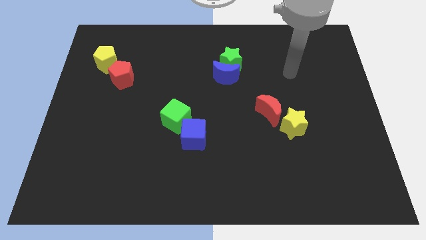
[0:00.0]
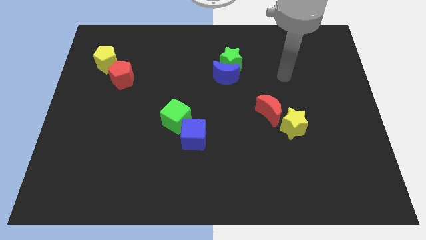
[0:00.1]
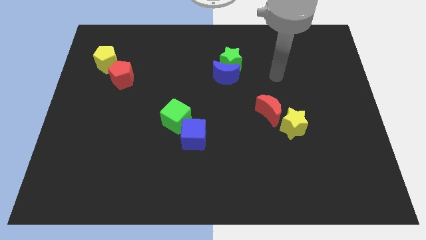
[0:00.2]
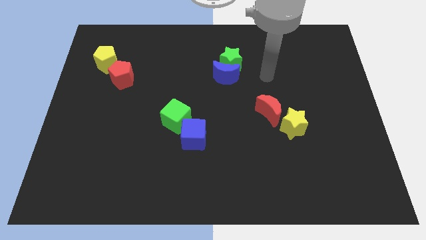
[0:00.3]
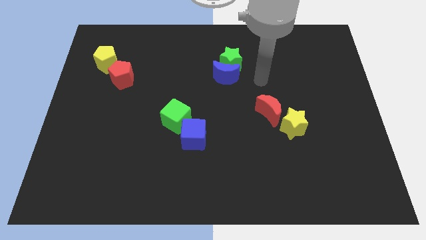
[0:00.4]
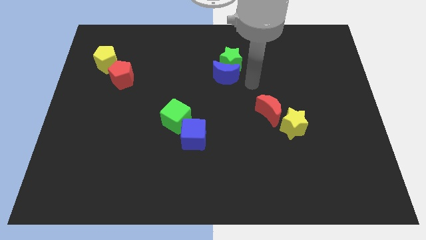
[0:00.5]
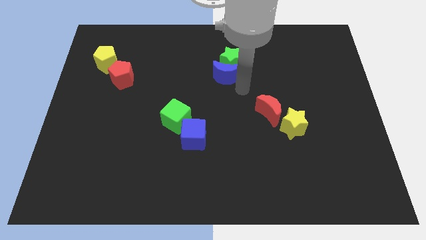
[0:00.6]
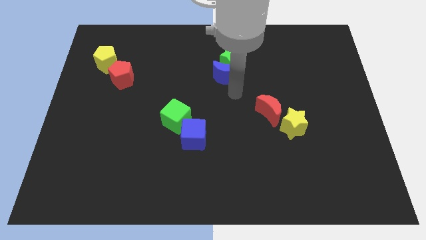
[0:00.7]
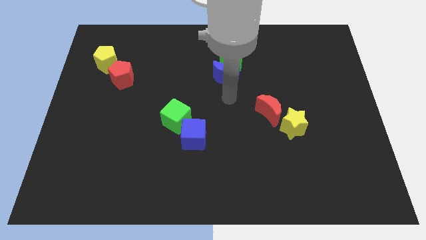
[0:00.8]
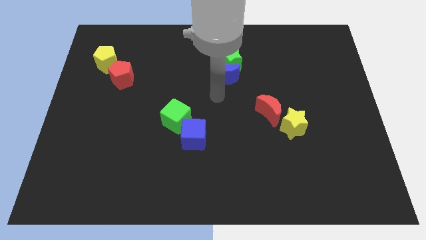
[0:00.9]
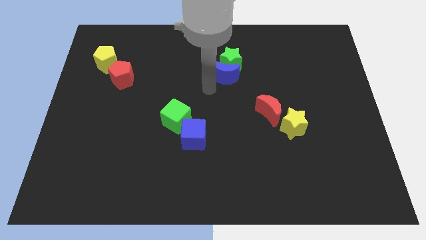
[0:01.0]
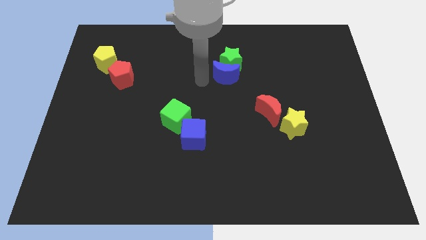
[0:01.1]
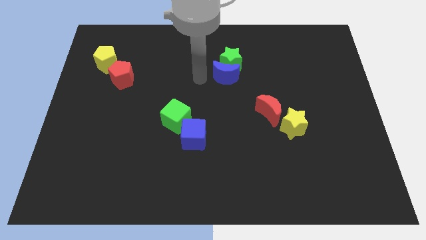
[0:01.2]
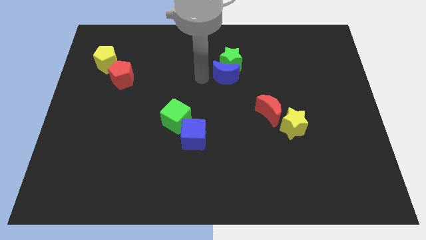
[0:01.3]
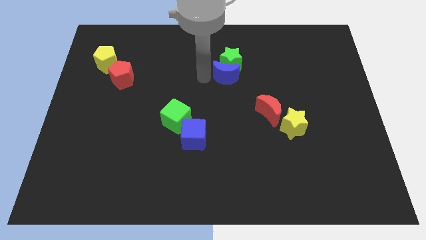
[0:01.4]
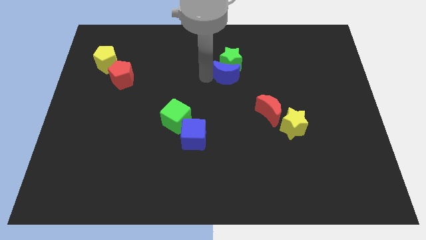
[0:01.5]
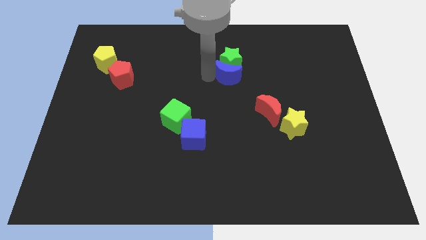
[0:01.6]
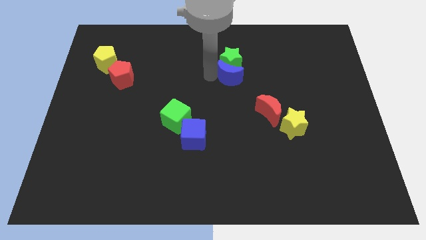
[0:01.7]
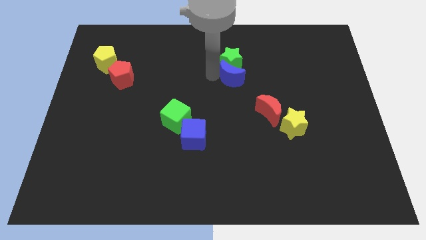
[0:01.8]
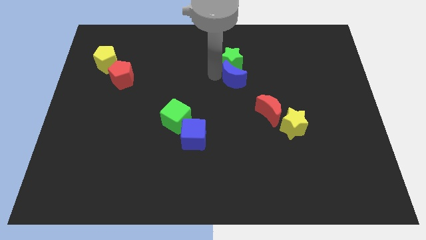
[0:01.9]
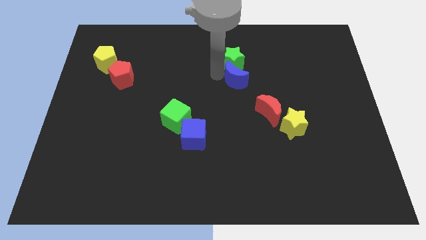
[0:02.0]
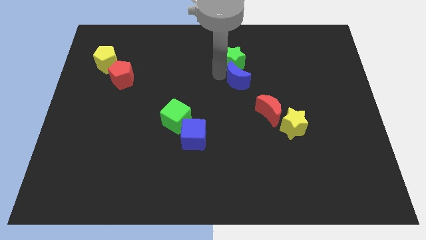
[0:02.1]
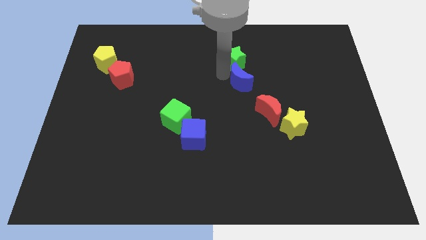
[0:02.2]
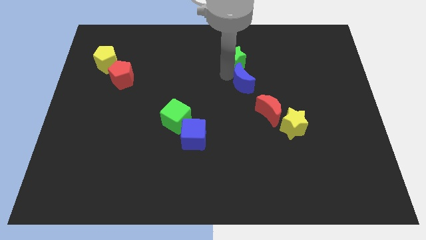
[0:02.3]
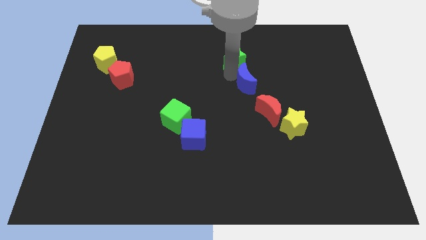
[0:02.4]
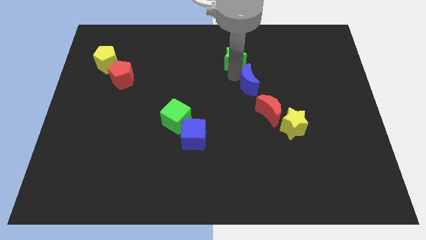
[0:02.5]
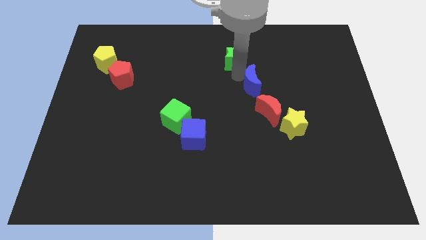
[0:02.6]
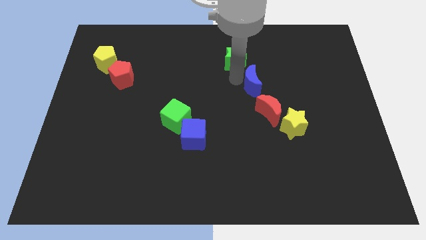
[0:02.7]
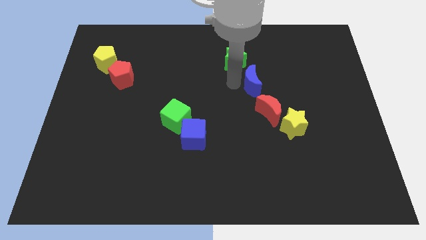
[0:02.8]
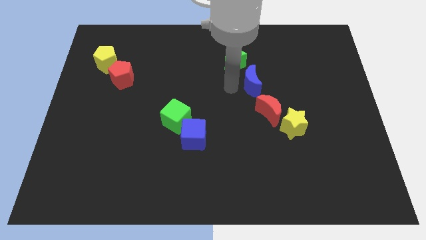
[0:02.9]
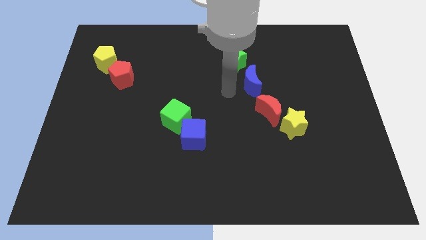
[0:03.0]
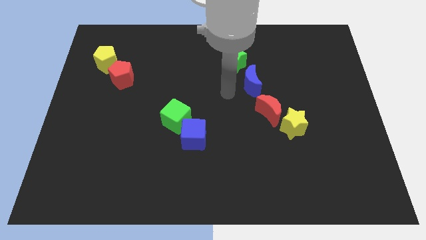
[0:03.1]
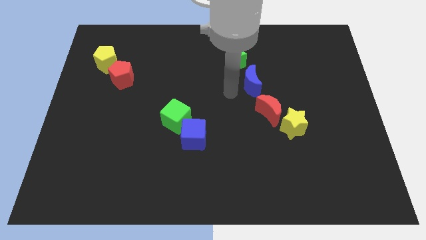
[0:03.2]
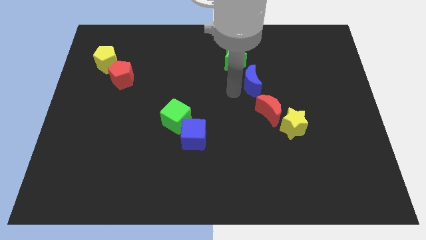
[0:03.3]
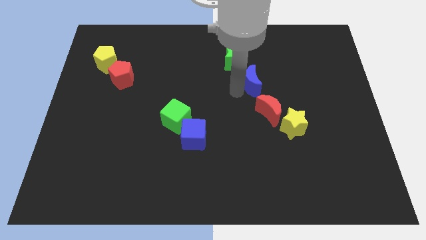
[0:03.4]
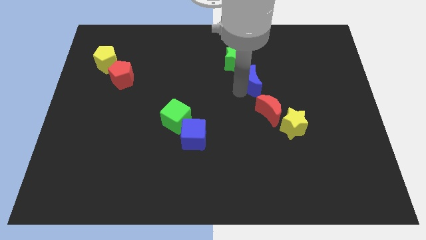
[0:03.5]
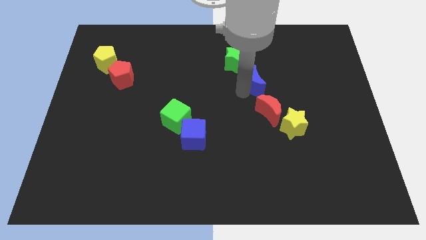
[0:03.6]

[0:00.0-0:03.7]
slide the blue moon right a little bit

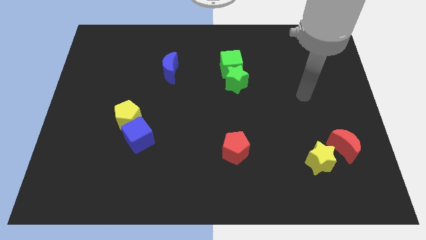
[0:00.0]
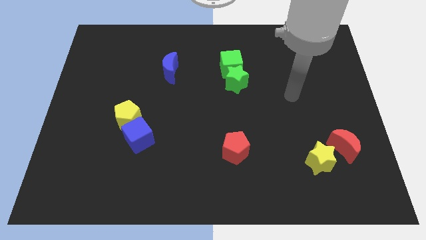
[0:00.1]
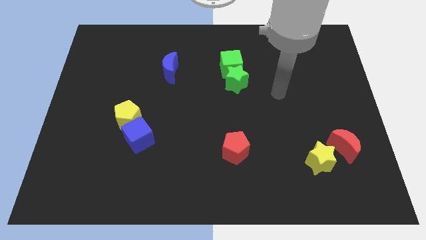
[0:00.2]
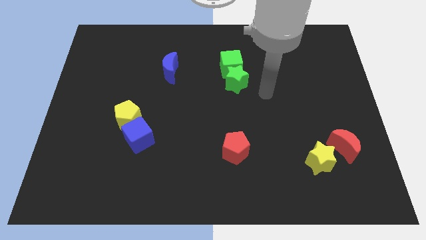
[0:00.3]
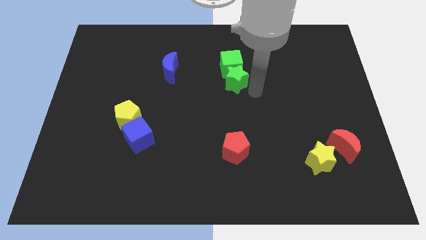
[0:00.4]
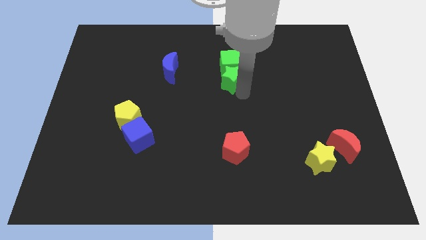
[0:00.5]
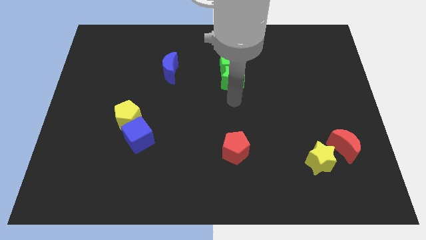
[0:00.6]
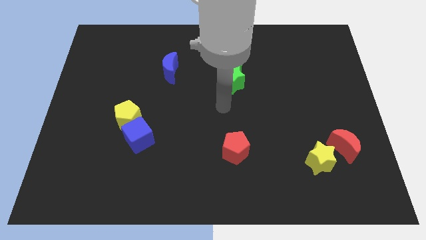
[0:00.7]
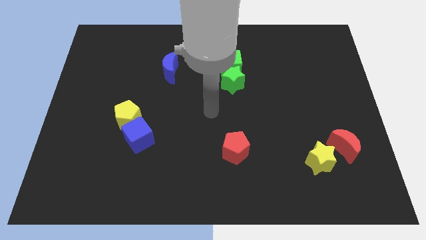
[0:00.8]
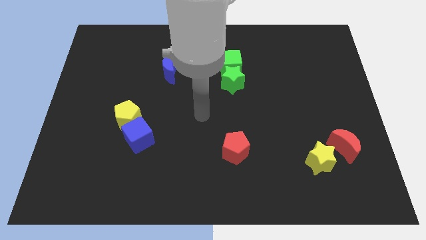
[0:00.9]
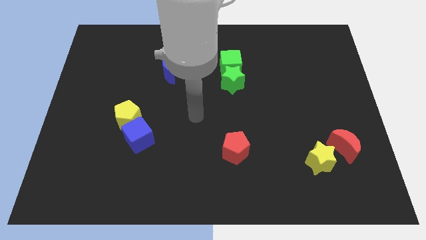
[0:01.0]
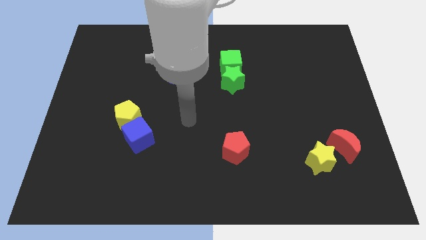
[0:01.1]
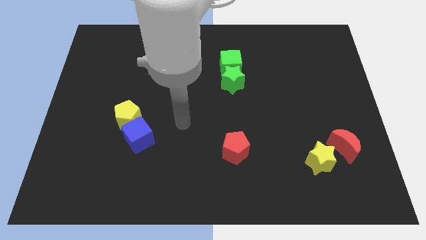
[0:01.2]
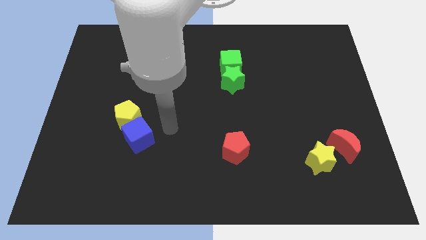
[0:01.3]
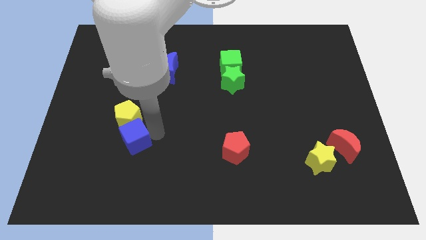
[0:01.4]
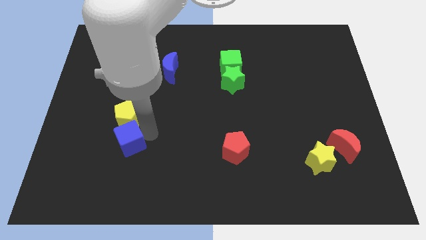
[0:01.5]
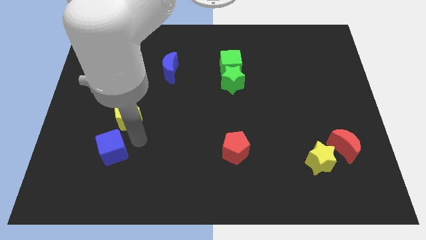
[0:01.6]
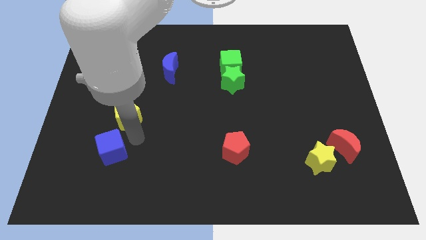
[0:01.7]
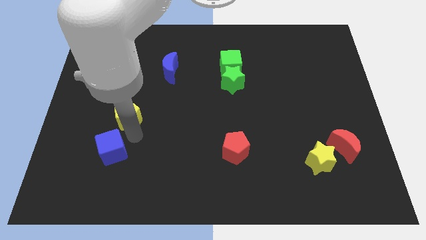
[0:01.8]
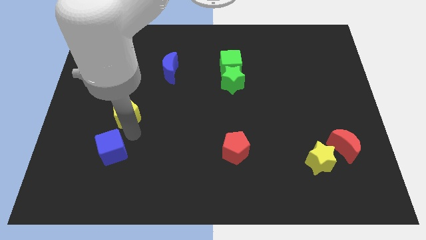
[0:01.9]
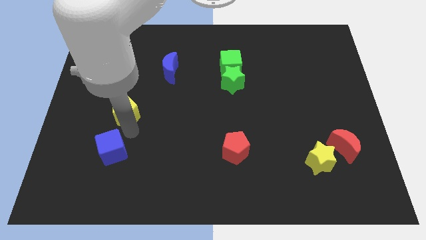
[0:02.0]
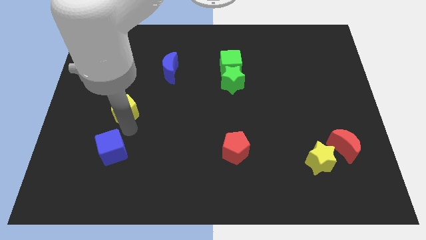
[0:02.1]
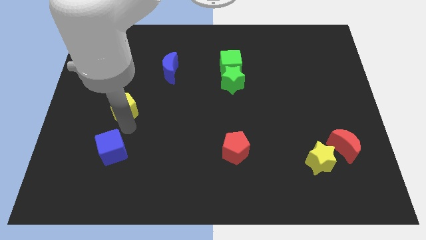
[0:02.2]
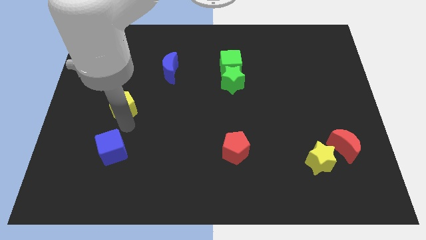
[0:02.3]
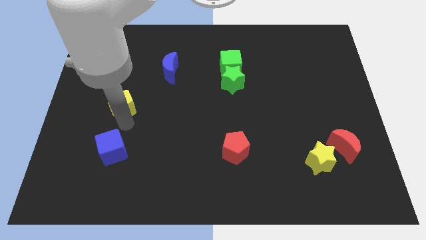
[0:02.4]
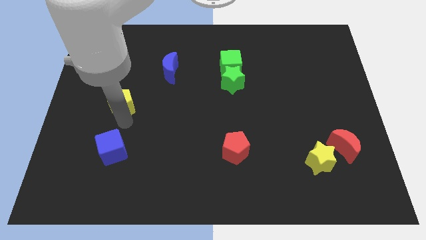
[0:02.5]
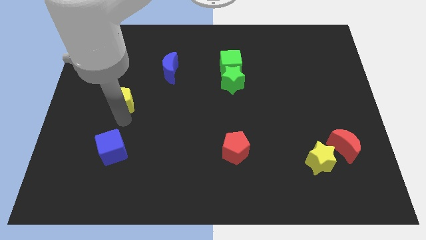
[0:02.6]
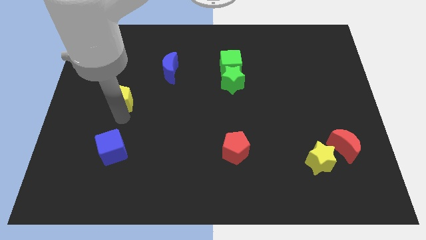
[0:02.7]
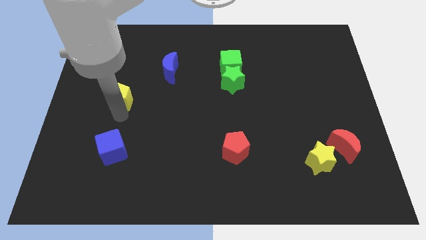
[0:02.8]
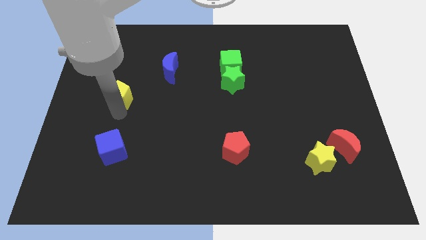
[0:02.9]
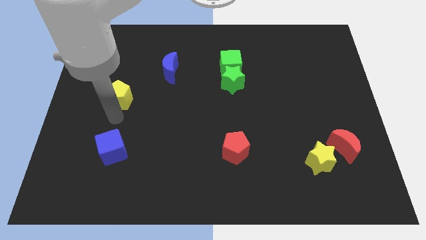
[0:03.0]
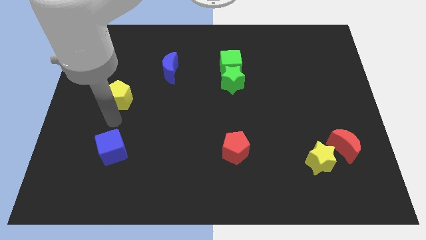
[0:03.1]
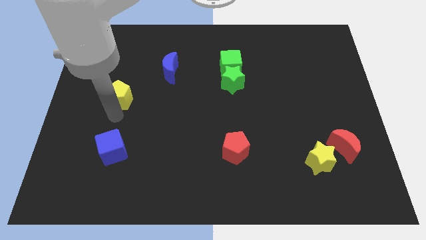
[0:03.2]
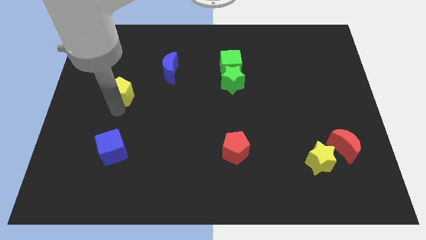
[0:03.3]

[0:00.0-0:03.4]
slide the yellow pentagon a little up

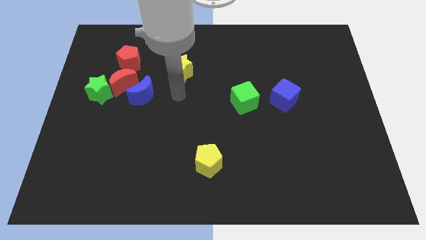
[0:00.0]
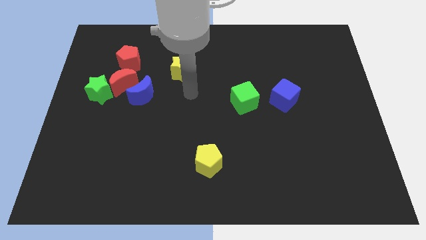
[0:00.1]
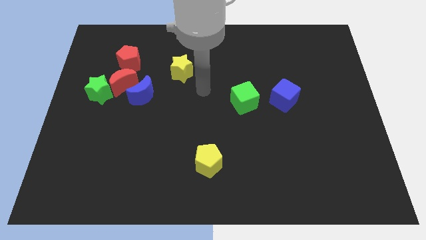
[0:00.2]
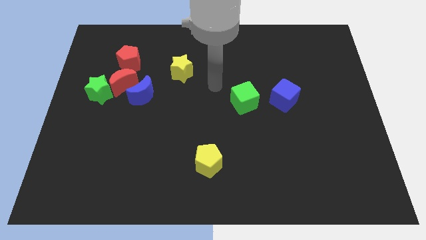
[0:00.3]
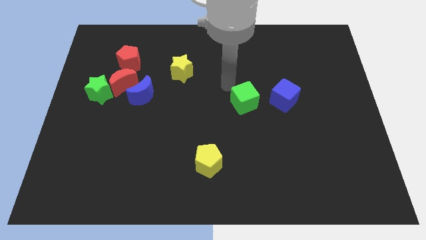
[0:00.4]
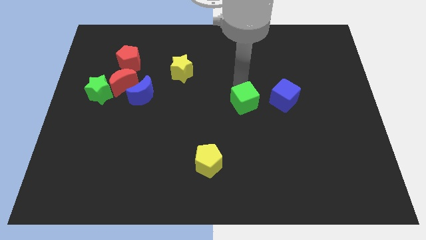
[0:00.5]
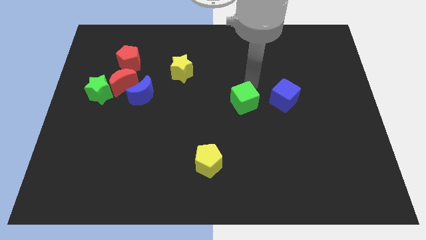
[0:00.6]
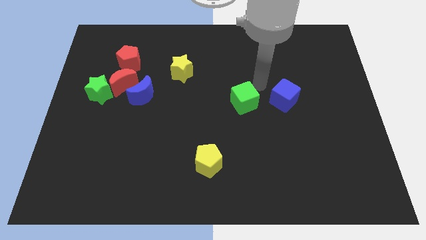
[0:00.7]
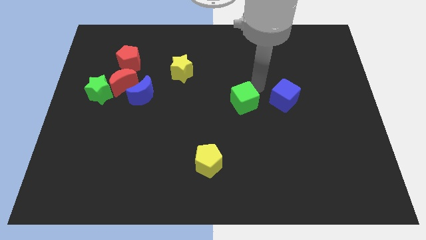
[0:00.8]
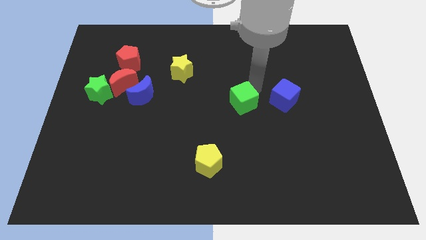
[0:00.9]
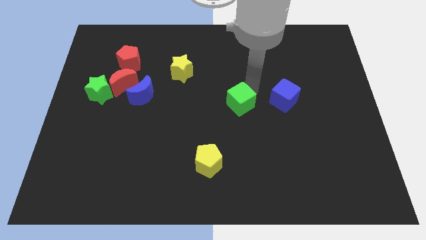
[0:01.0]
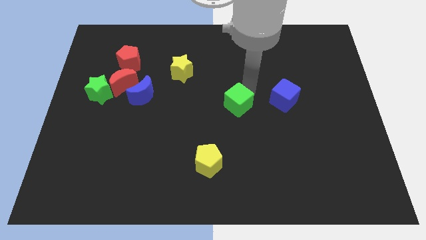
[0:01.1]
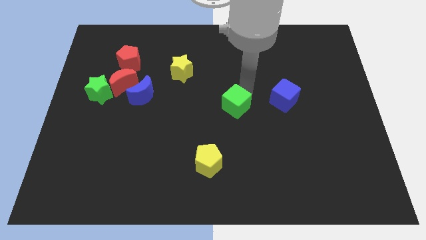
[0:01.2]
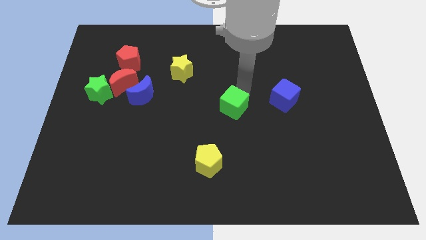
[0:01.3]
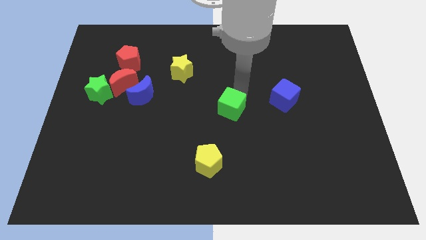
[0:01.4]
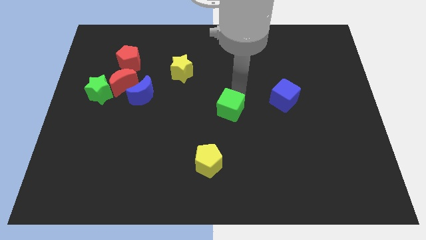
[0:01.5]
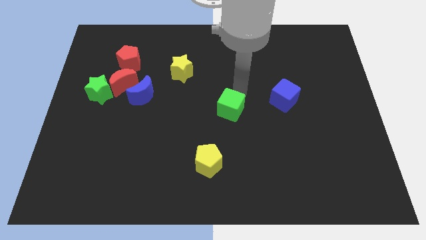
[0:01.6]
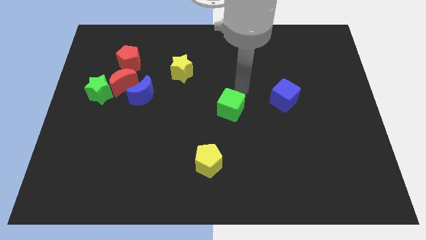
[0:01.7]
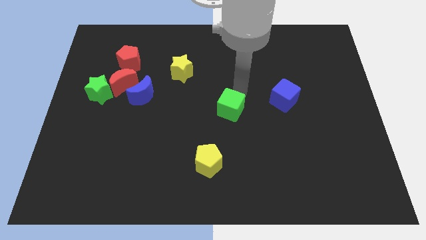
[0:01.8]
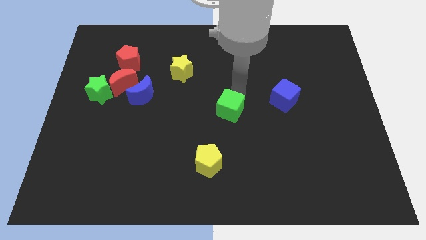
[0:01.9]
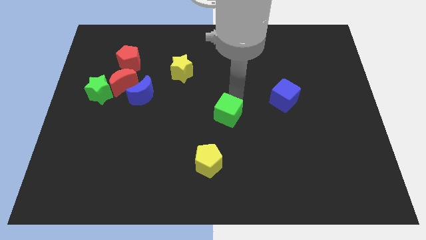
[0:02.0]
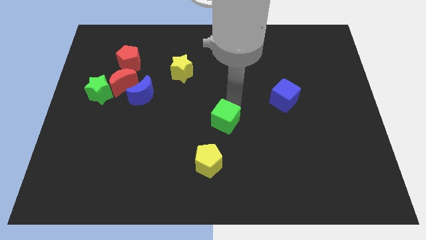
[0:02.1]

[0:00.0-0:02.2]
push the green cube slightly down and then left
